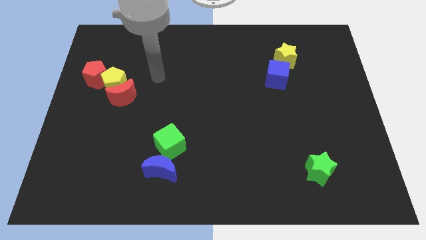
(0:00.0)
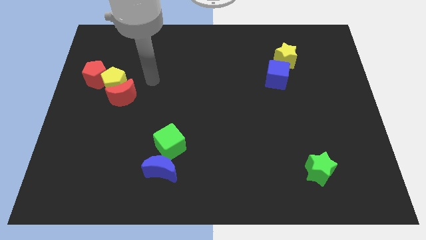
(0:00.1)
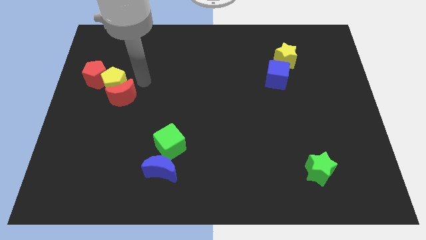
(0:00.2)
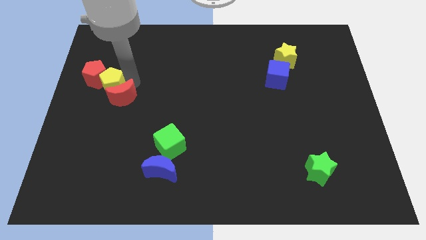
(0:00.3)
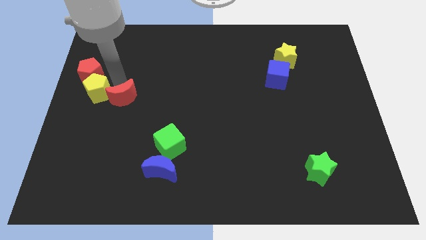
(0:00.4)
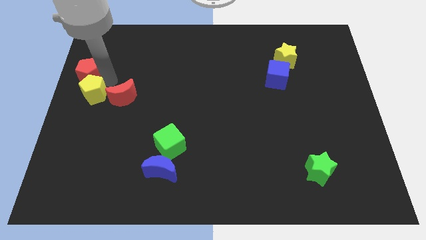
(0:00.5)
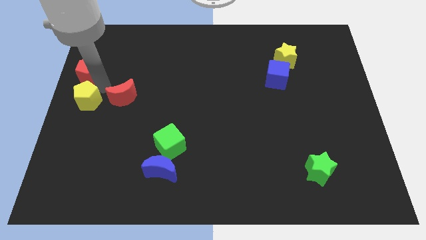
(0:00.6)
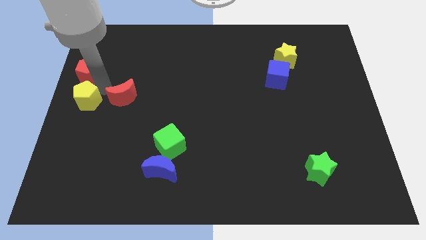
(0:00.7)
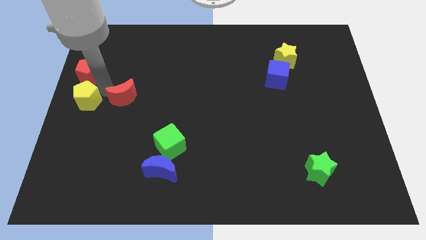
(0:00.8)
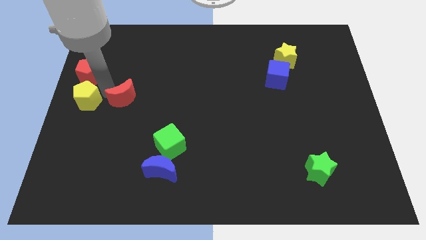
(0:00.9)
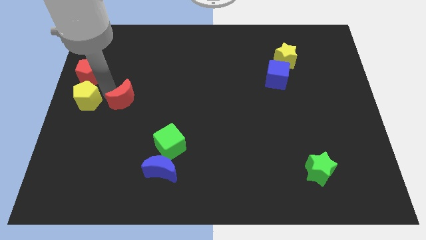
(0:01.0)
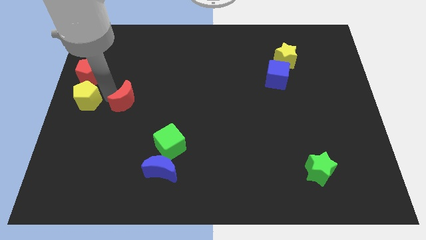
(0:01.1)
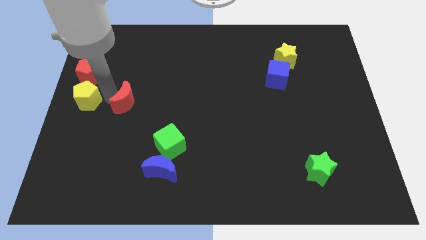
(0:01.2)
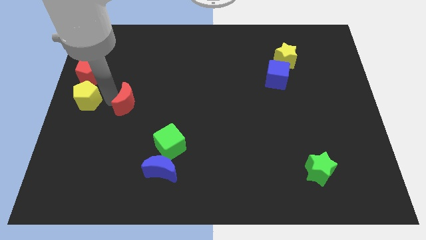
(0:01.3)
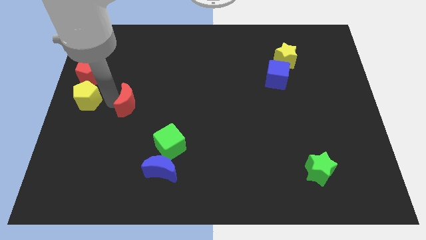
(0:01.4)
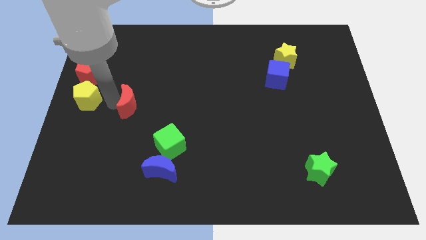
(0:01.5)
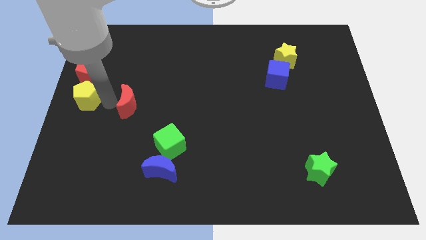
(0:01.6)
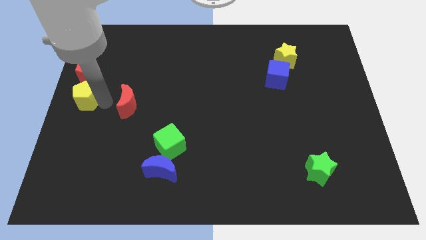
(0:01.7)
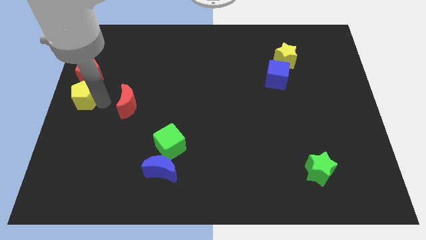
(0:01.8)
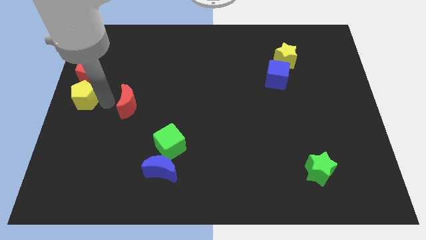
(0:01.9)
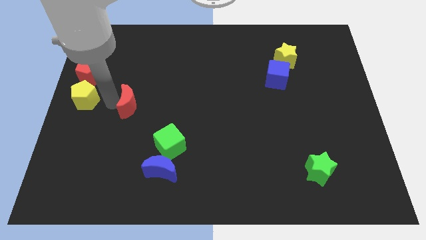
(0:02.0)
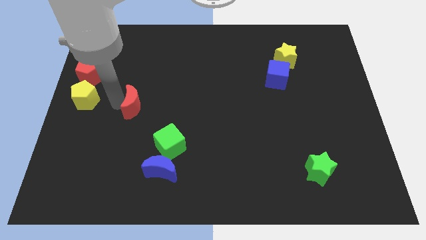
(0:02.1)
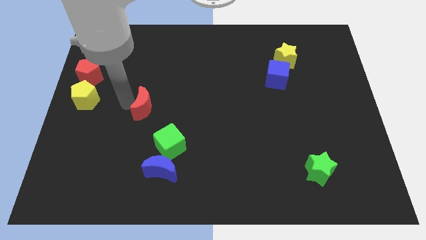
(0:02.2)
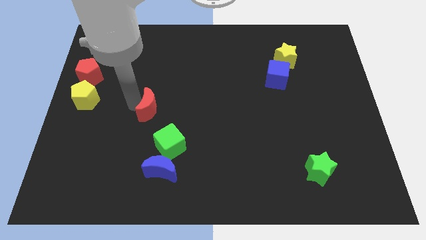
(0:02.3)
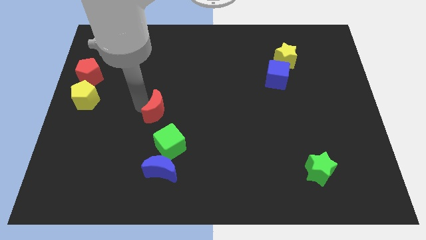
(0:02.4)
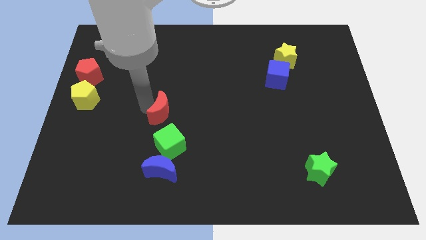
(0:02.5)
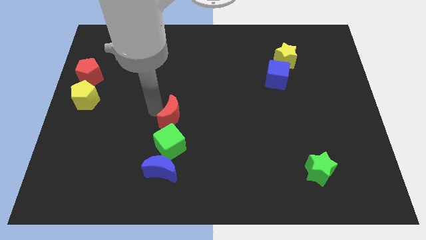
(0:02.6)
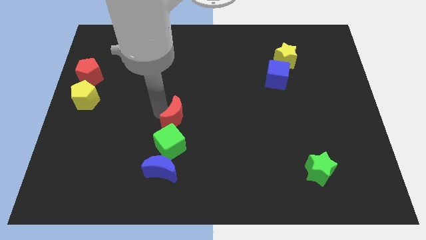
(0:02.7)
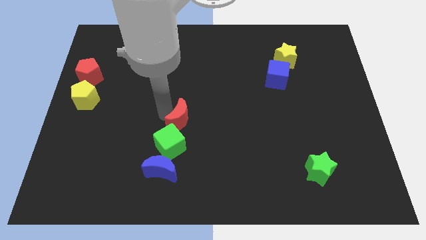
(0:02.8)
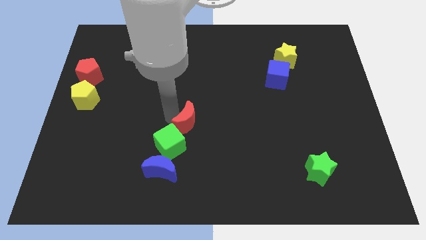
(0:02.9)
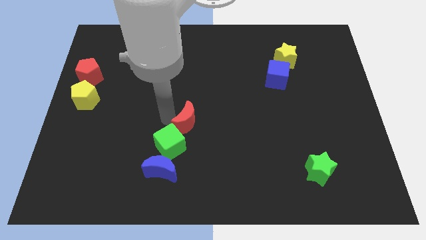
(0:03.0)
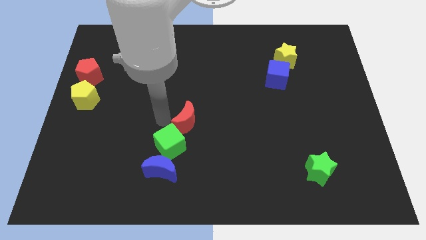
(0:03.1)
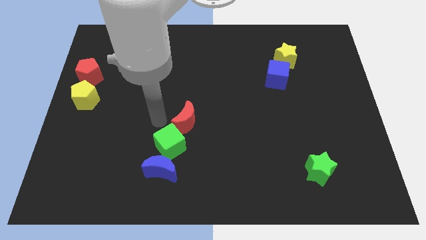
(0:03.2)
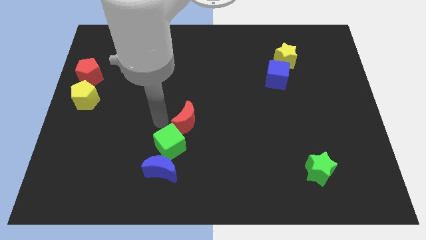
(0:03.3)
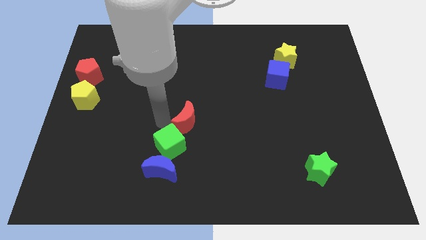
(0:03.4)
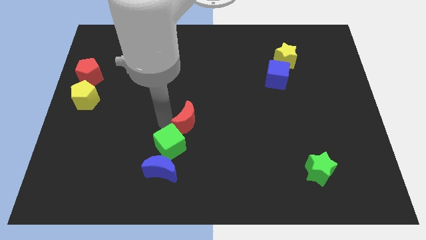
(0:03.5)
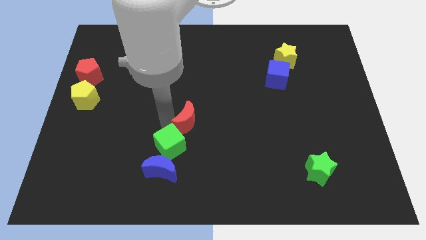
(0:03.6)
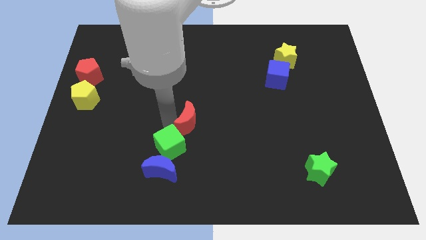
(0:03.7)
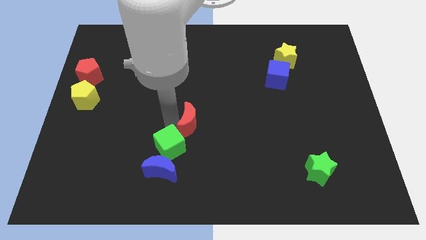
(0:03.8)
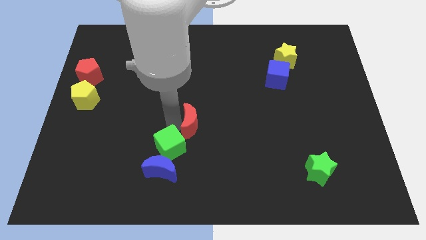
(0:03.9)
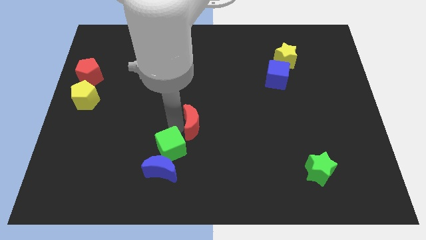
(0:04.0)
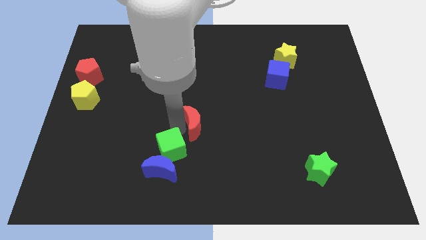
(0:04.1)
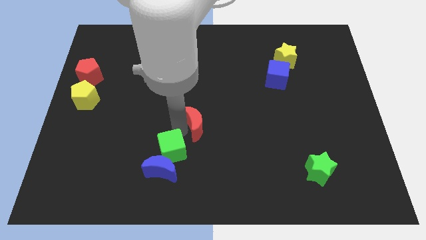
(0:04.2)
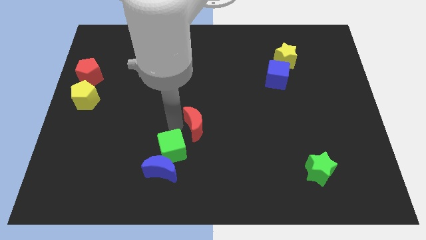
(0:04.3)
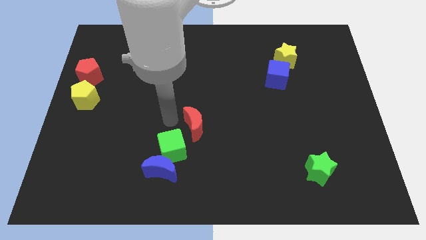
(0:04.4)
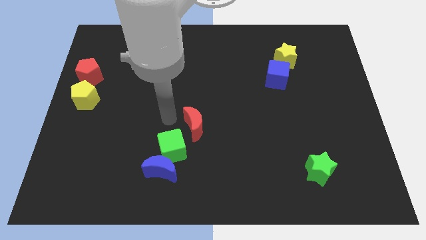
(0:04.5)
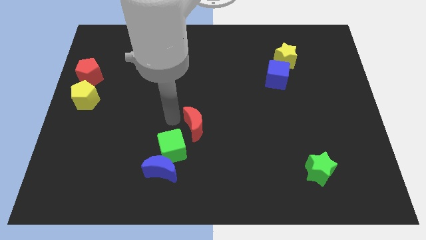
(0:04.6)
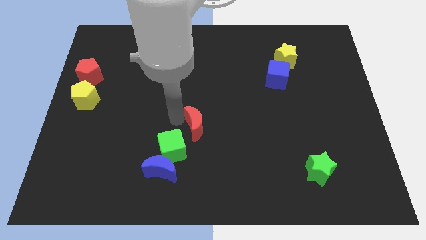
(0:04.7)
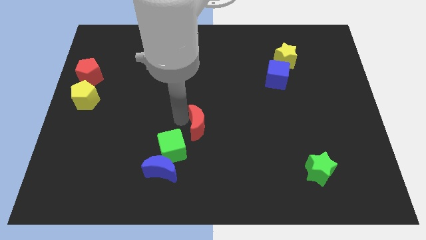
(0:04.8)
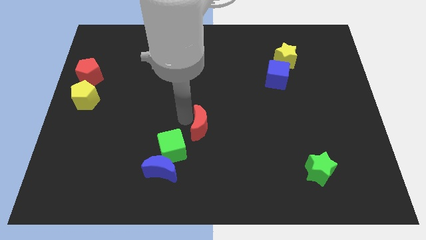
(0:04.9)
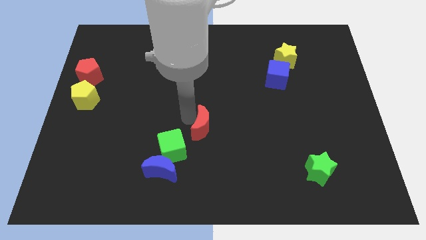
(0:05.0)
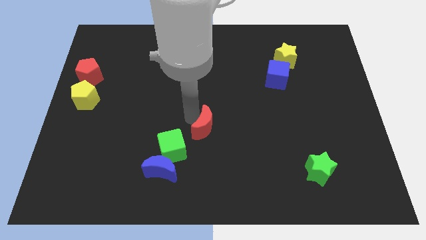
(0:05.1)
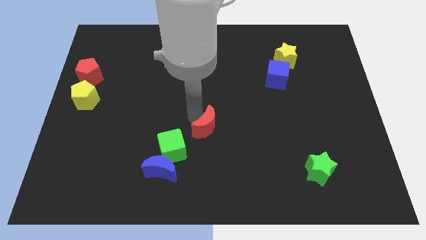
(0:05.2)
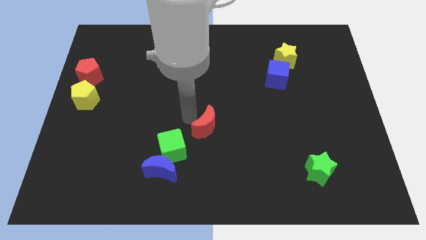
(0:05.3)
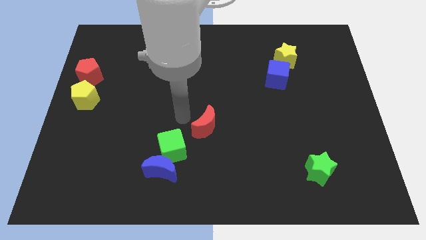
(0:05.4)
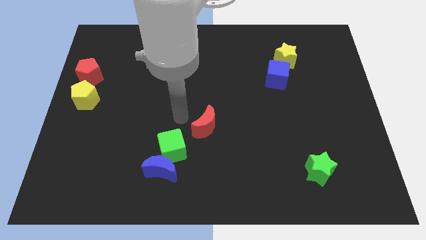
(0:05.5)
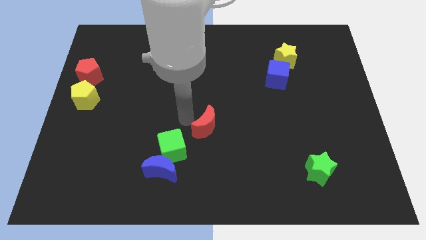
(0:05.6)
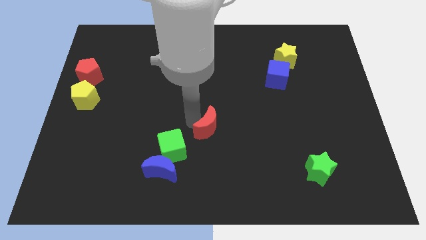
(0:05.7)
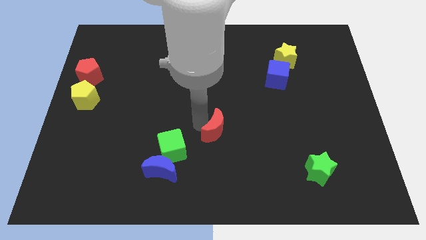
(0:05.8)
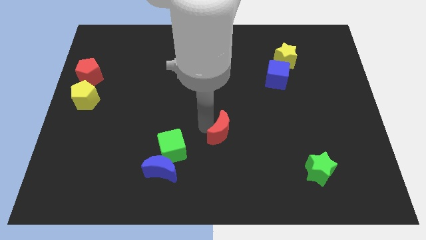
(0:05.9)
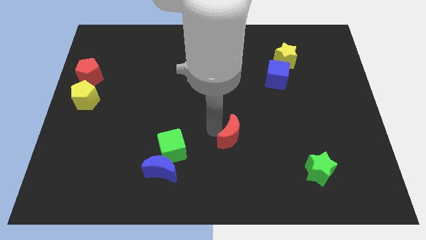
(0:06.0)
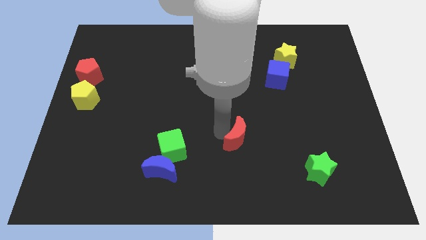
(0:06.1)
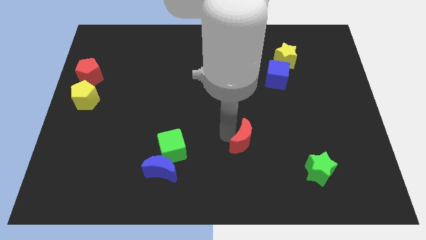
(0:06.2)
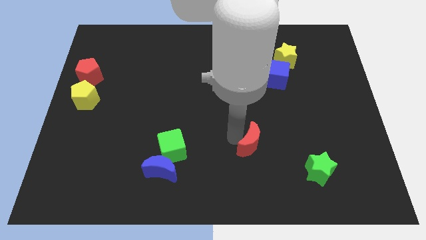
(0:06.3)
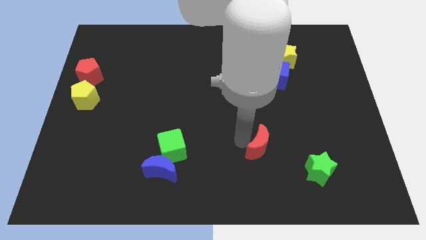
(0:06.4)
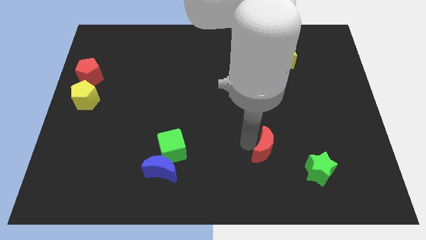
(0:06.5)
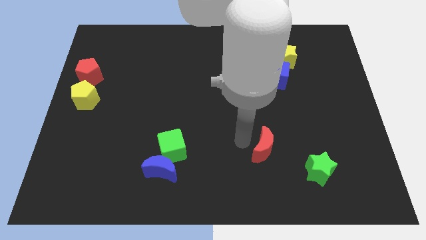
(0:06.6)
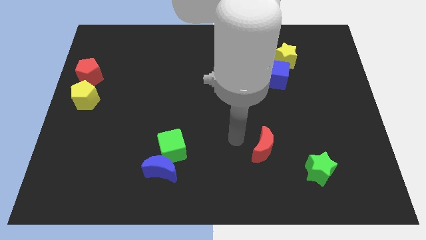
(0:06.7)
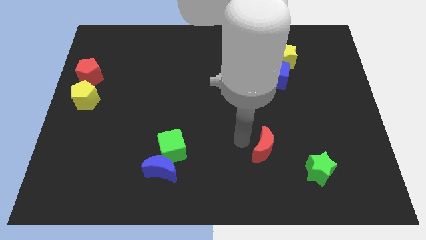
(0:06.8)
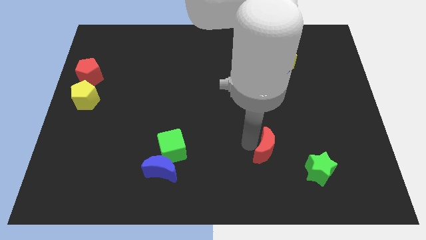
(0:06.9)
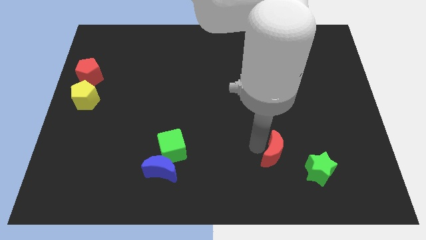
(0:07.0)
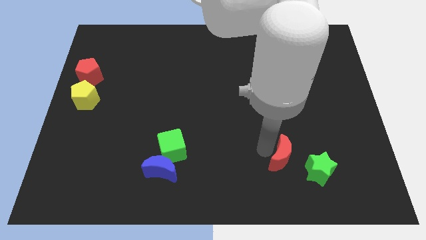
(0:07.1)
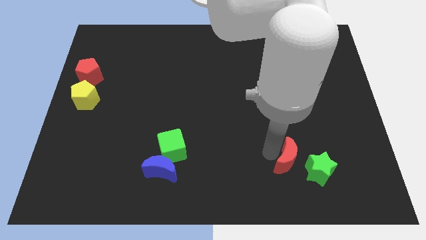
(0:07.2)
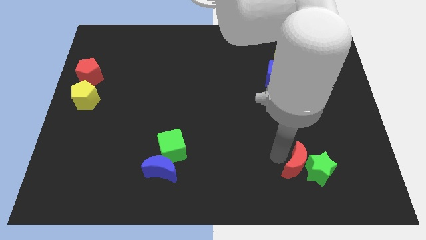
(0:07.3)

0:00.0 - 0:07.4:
push the red moon close to the green star

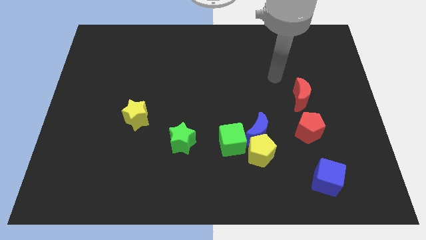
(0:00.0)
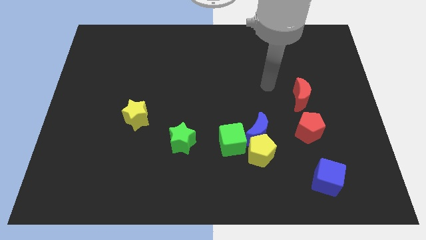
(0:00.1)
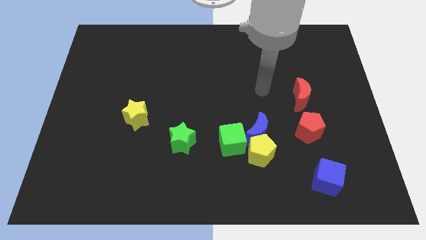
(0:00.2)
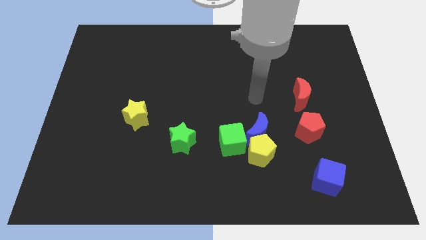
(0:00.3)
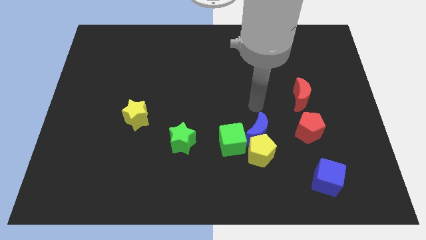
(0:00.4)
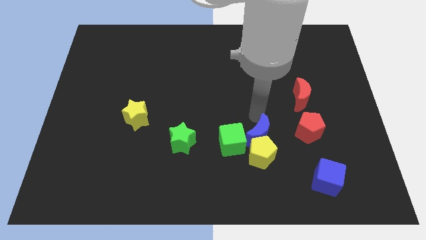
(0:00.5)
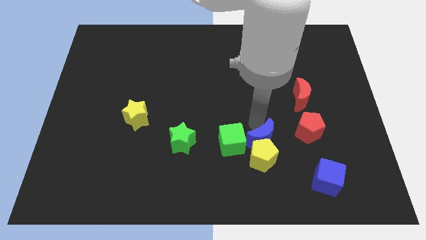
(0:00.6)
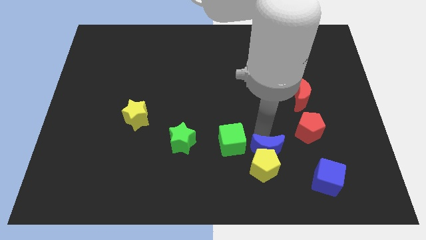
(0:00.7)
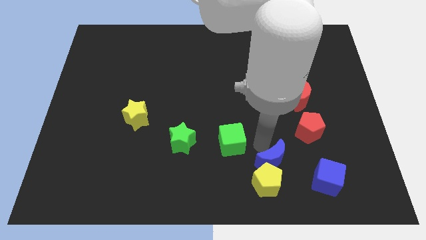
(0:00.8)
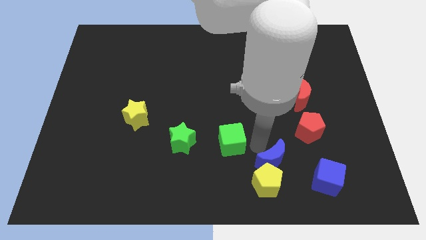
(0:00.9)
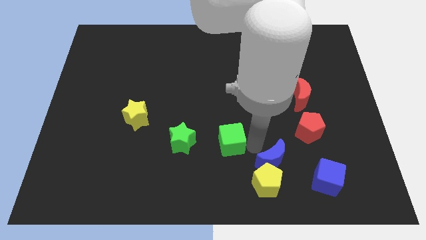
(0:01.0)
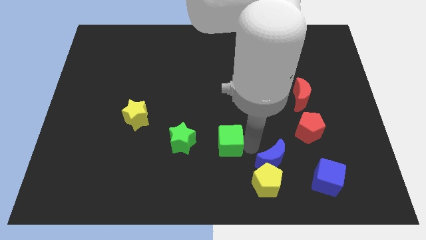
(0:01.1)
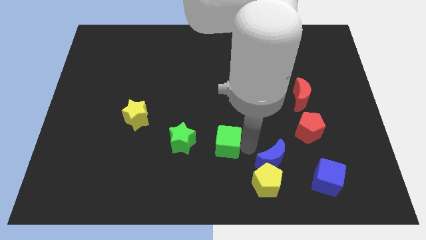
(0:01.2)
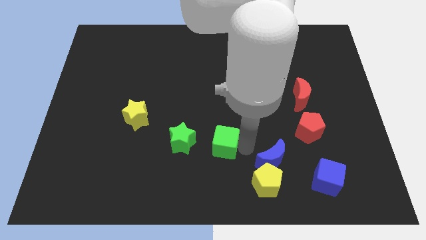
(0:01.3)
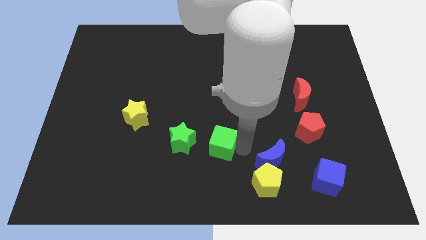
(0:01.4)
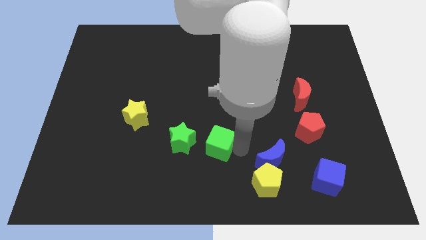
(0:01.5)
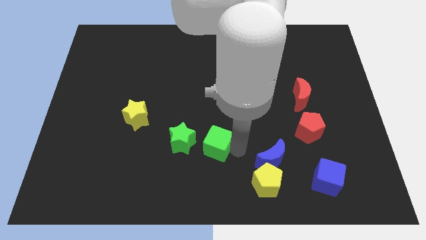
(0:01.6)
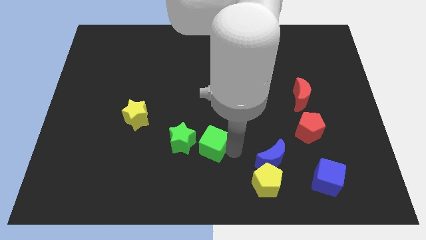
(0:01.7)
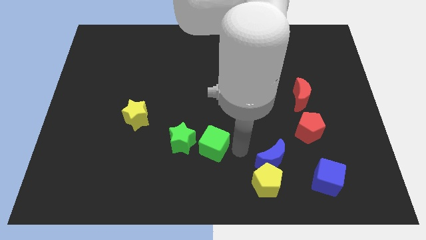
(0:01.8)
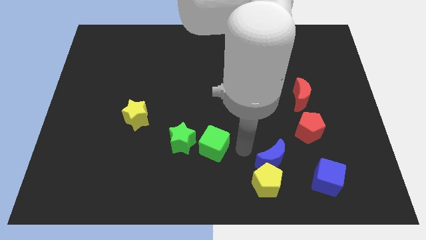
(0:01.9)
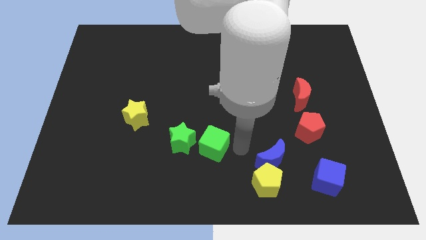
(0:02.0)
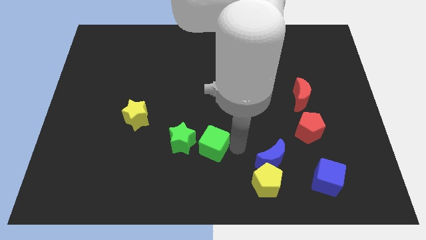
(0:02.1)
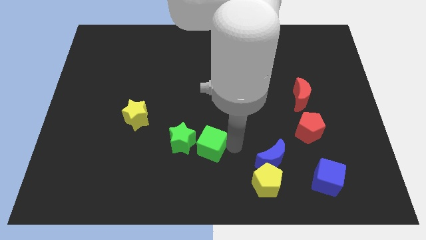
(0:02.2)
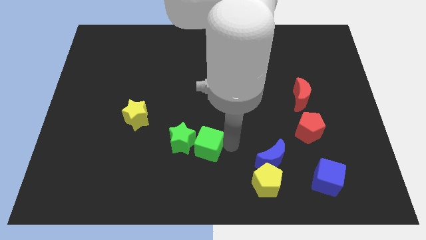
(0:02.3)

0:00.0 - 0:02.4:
slide the green cube towards the green star
